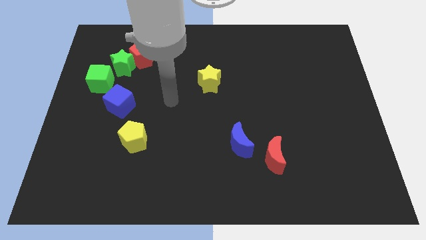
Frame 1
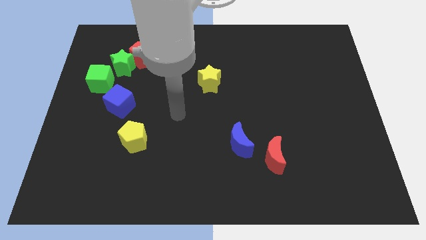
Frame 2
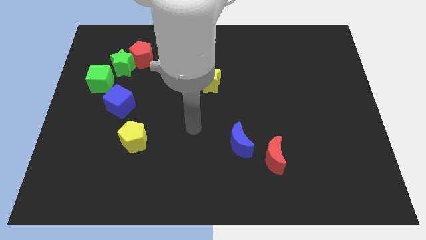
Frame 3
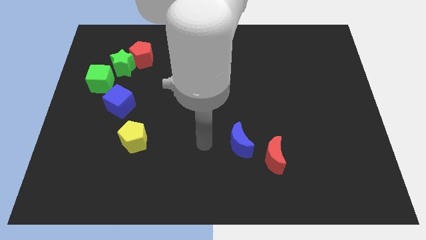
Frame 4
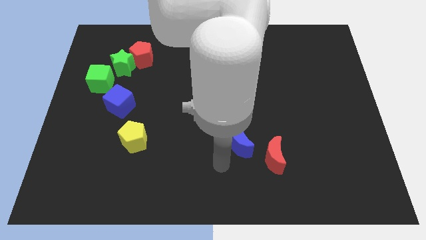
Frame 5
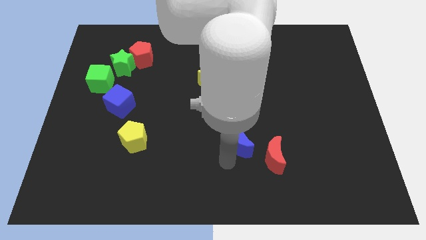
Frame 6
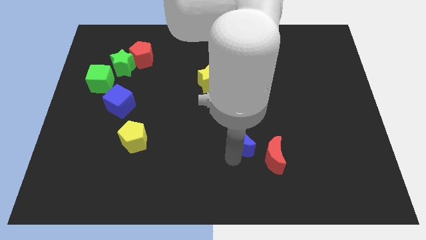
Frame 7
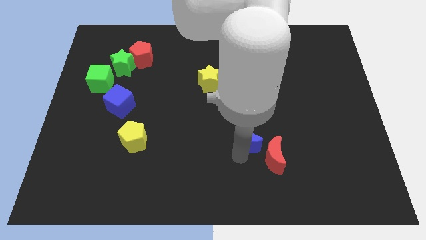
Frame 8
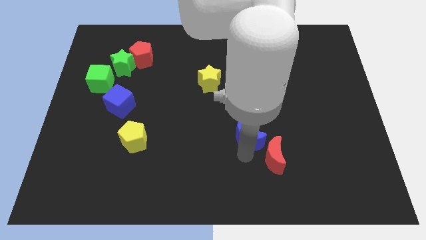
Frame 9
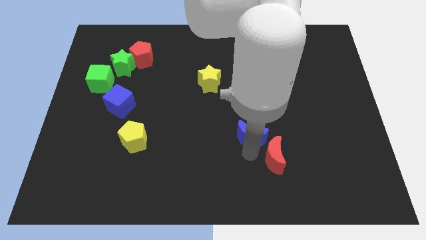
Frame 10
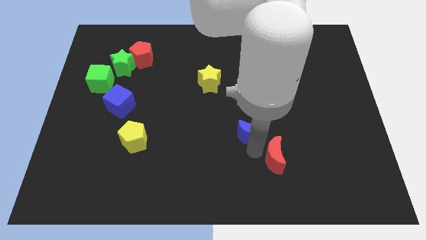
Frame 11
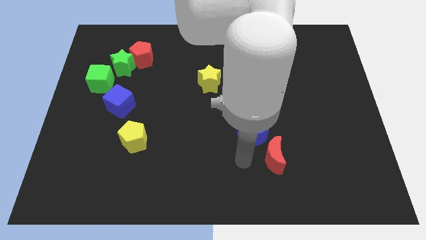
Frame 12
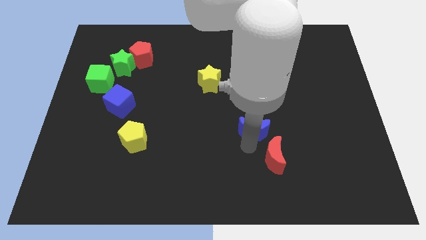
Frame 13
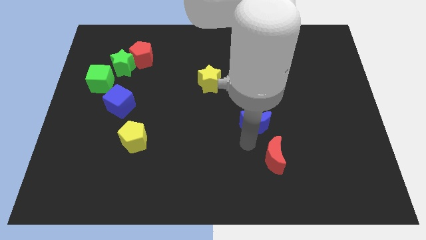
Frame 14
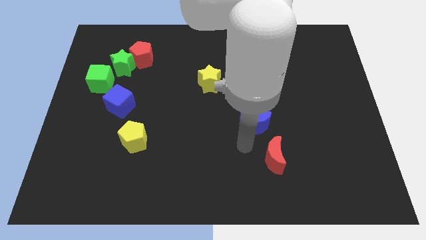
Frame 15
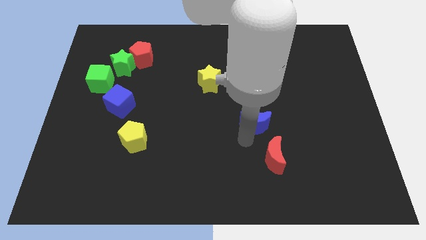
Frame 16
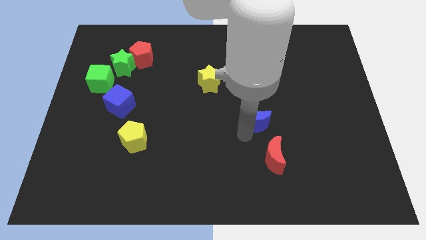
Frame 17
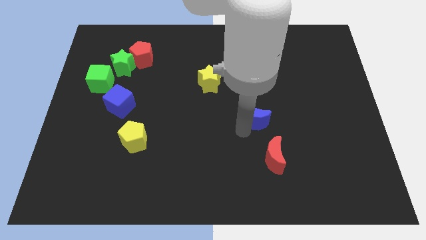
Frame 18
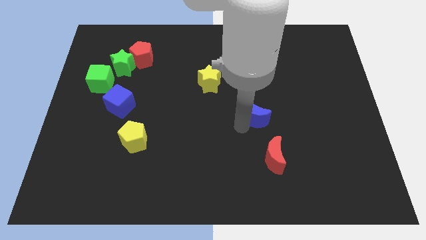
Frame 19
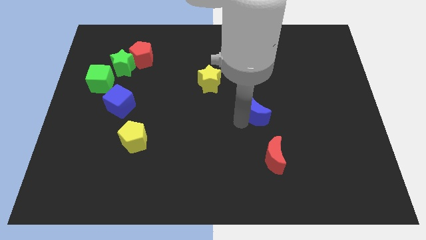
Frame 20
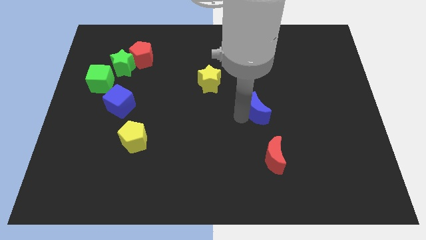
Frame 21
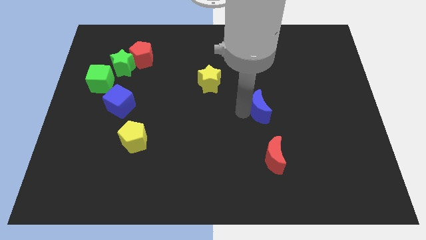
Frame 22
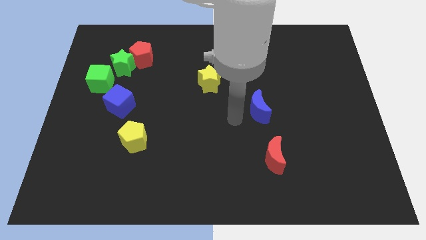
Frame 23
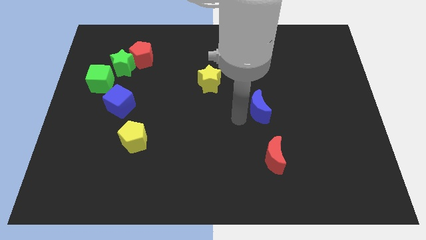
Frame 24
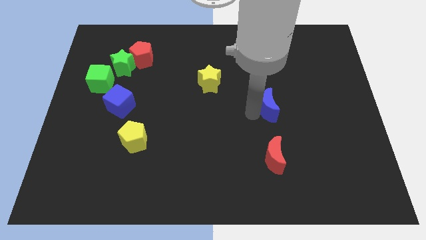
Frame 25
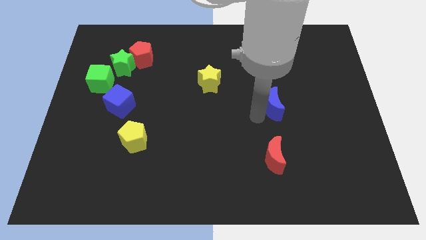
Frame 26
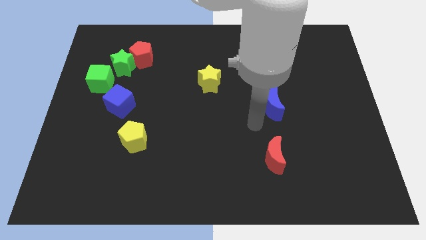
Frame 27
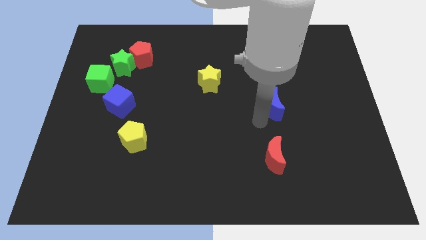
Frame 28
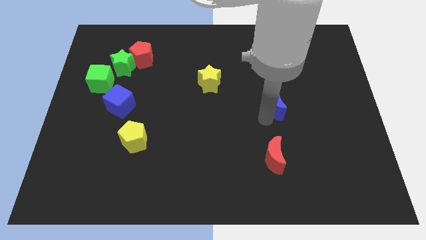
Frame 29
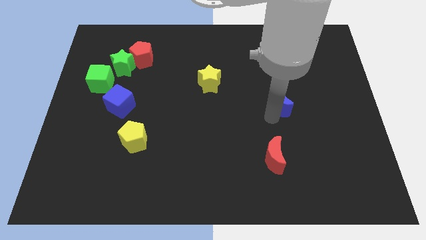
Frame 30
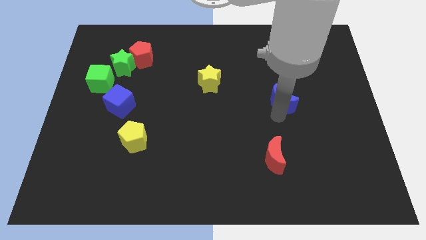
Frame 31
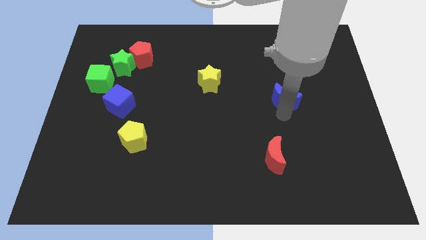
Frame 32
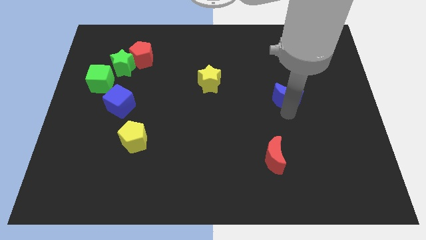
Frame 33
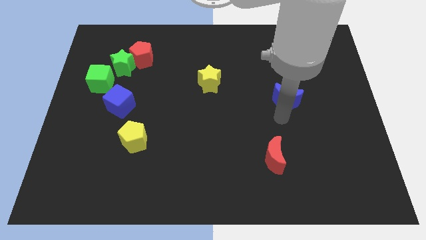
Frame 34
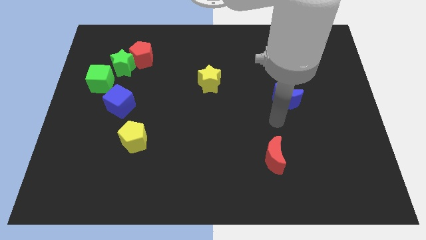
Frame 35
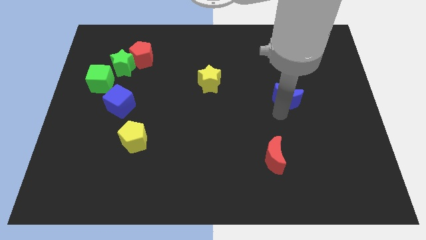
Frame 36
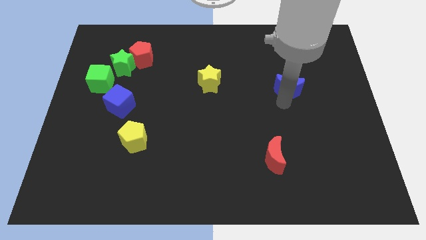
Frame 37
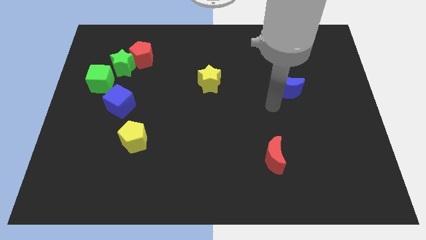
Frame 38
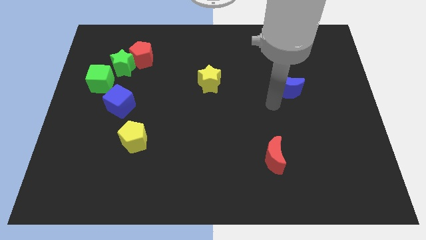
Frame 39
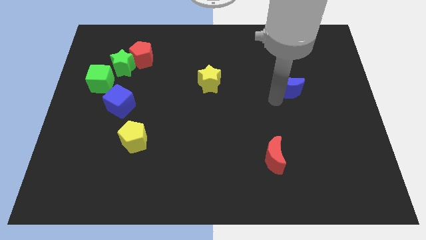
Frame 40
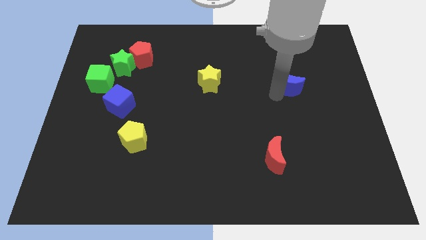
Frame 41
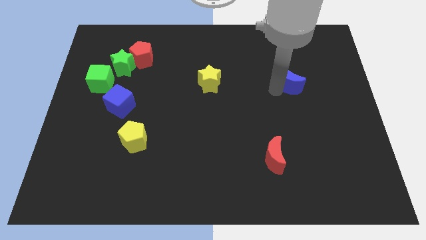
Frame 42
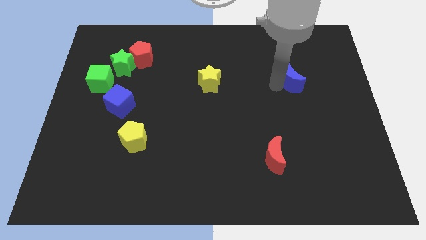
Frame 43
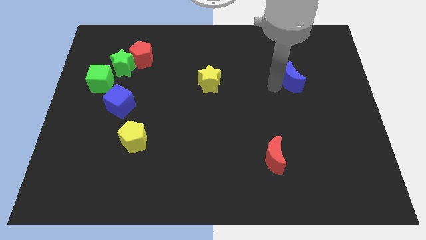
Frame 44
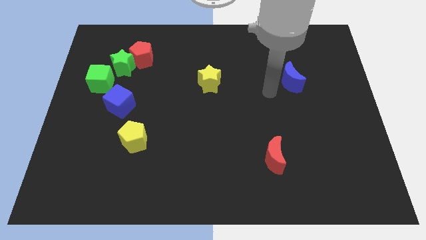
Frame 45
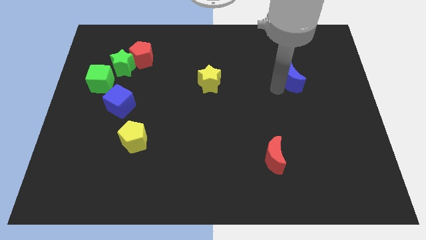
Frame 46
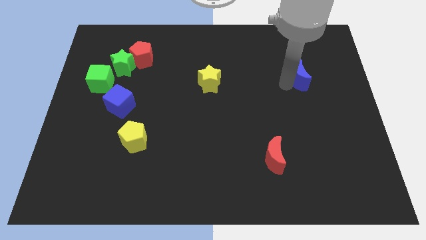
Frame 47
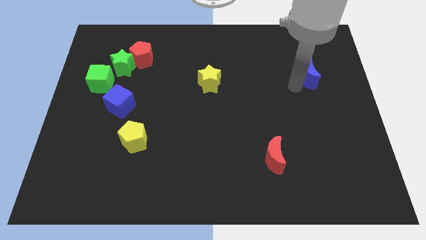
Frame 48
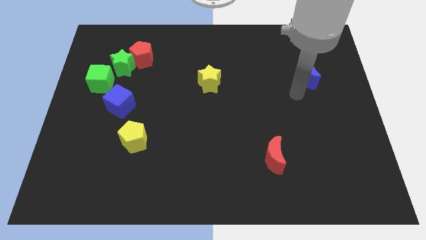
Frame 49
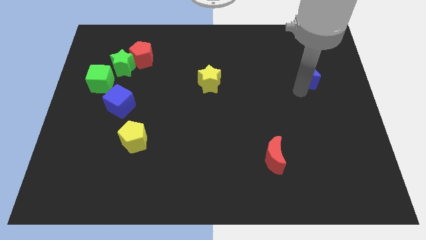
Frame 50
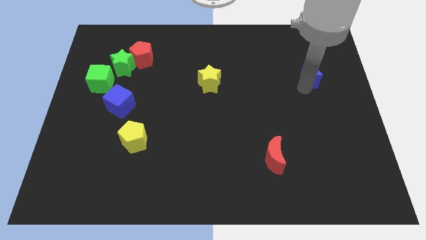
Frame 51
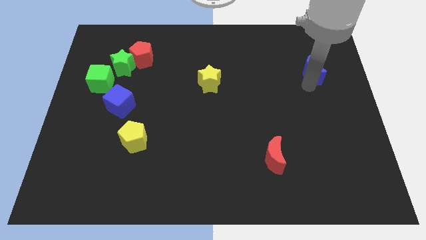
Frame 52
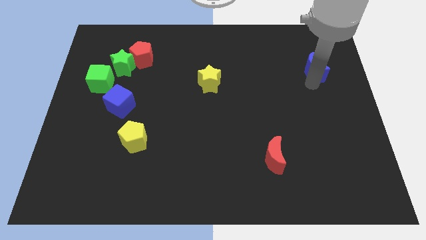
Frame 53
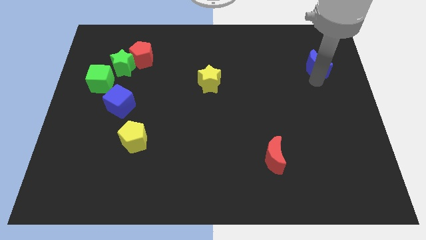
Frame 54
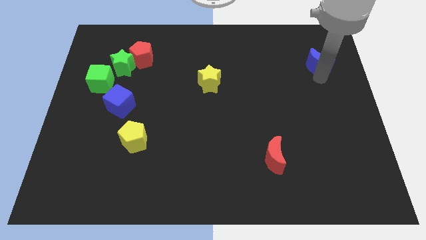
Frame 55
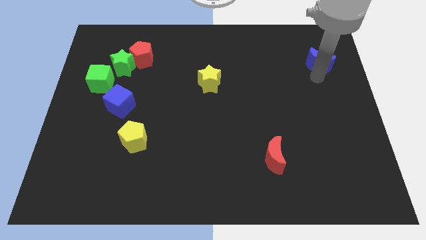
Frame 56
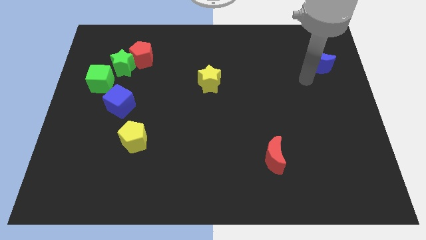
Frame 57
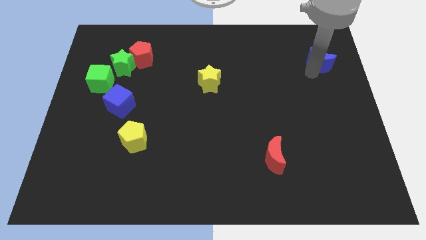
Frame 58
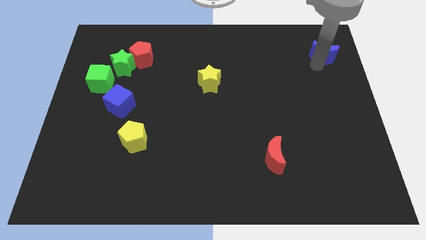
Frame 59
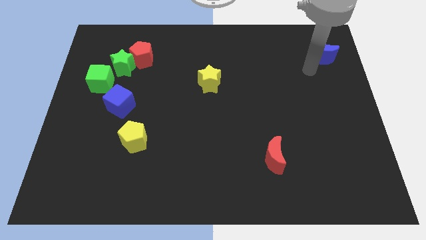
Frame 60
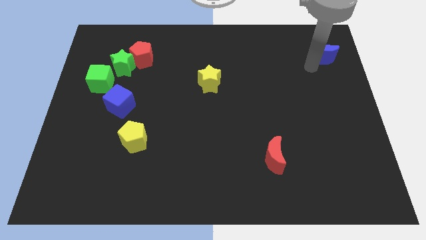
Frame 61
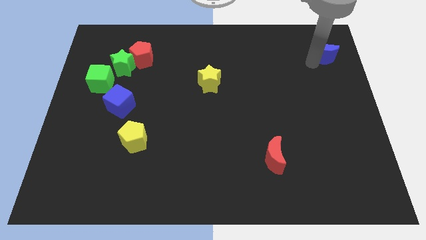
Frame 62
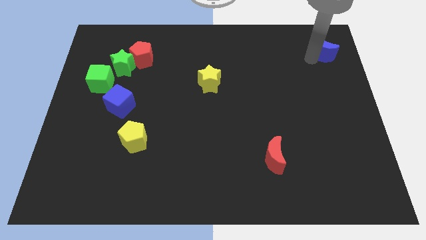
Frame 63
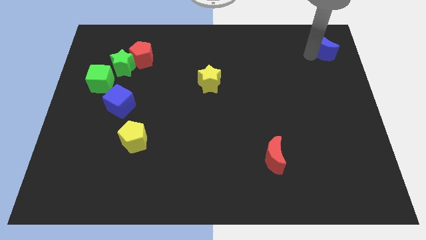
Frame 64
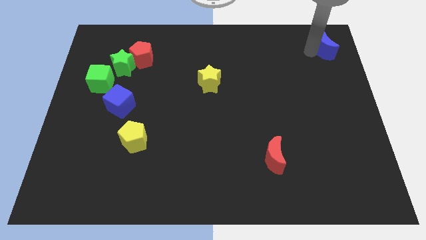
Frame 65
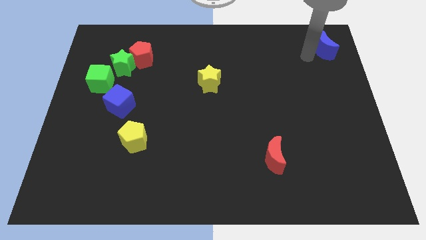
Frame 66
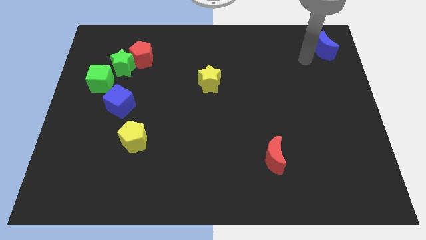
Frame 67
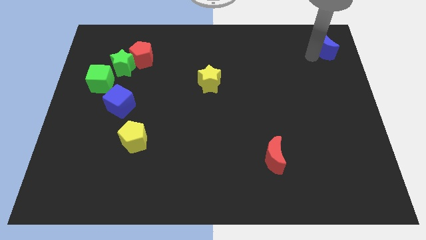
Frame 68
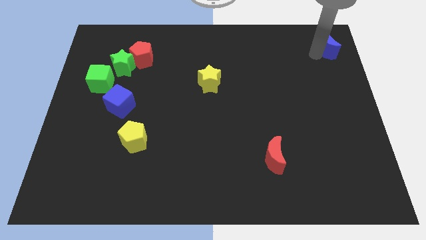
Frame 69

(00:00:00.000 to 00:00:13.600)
push the blue moon to the top right
